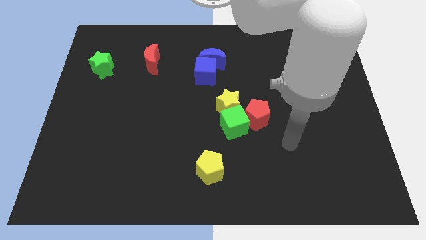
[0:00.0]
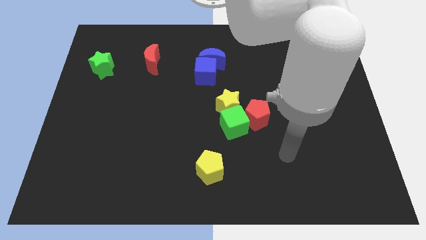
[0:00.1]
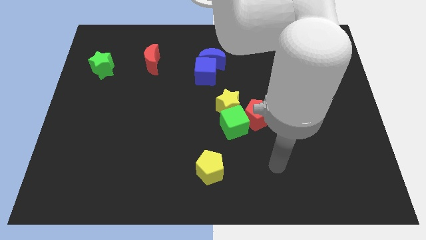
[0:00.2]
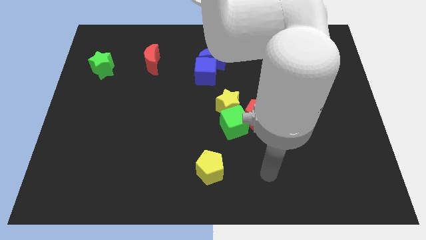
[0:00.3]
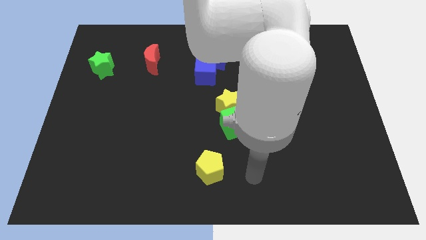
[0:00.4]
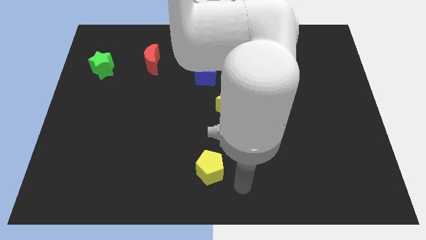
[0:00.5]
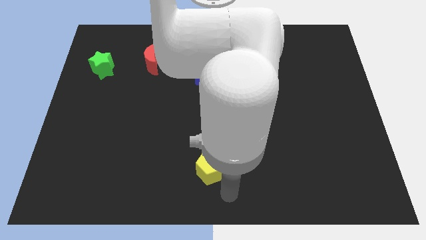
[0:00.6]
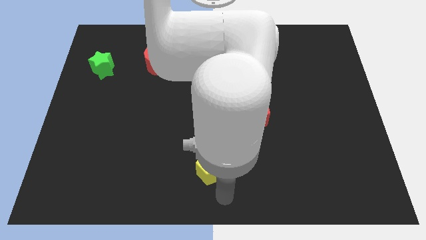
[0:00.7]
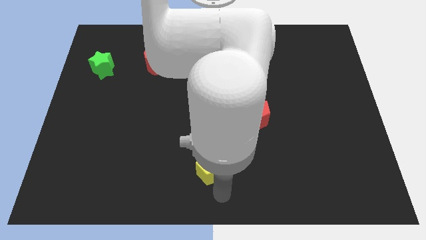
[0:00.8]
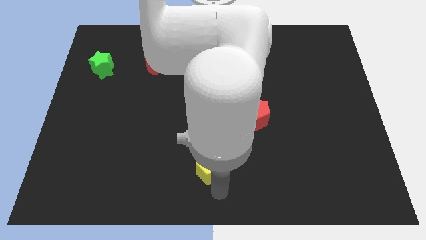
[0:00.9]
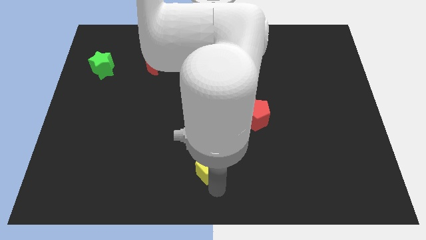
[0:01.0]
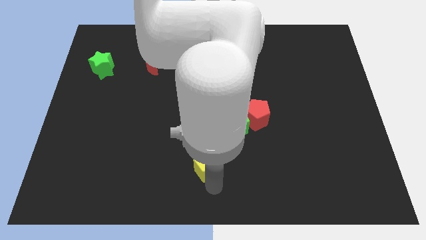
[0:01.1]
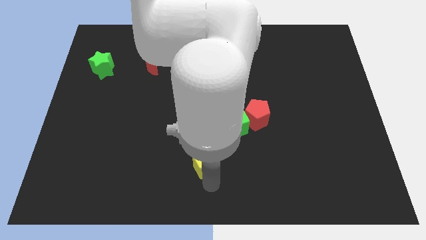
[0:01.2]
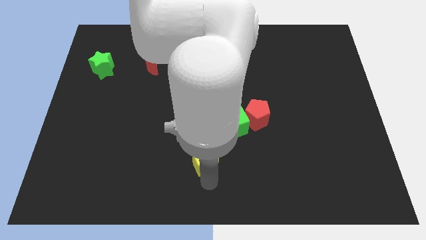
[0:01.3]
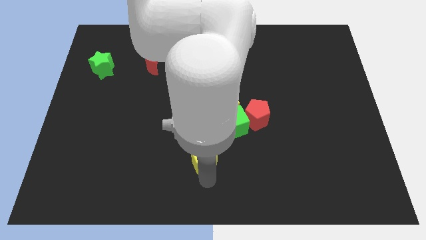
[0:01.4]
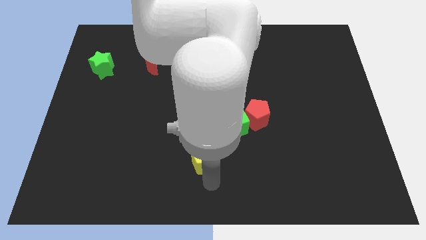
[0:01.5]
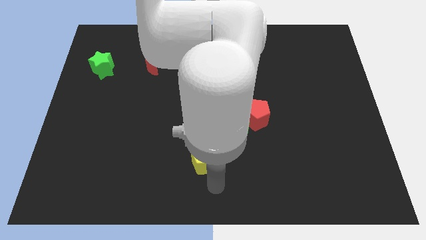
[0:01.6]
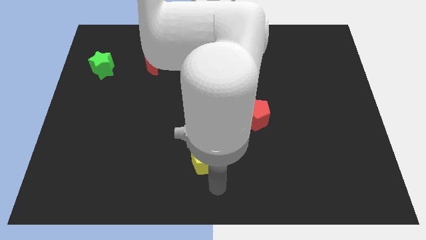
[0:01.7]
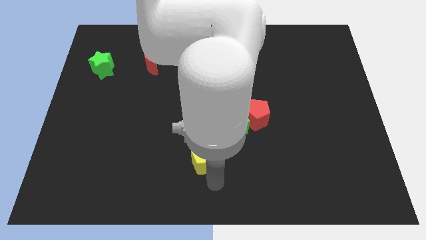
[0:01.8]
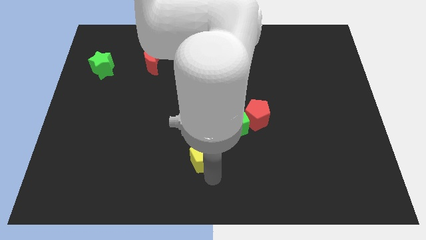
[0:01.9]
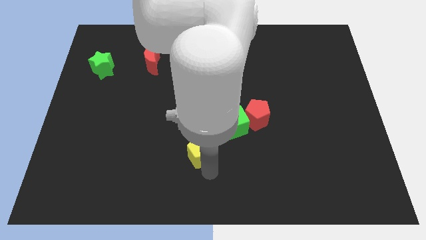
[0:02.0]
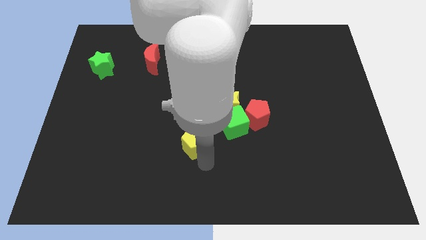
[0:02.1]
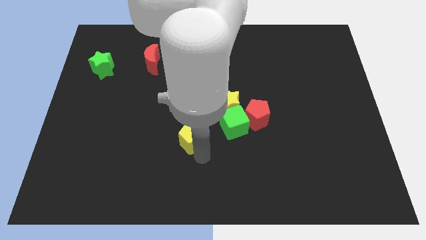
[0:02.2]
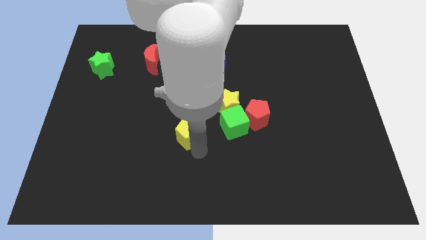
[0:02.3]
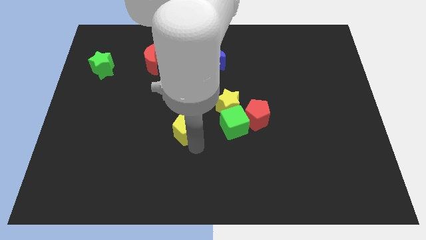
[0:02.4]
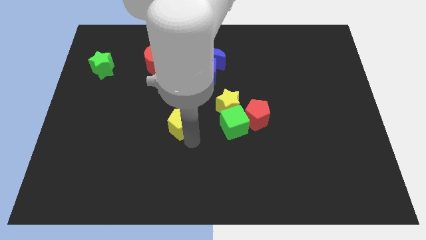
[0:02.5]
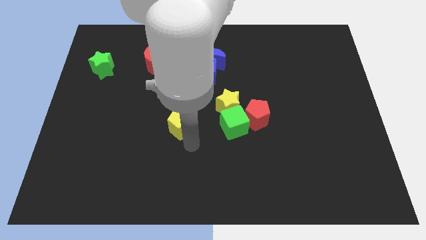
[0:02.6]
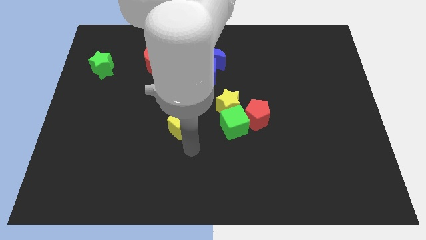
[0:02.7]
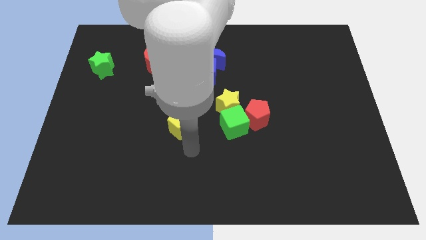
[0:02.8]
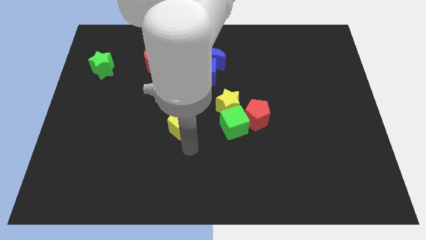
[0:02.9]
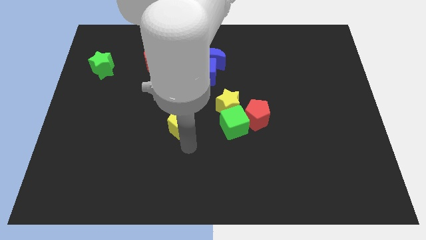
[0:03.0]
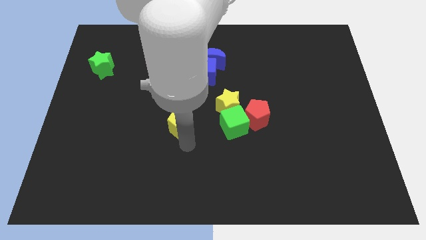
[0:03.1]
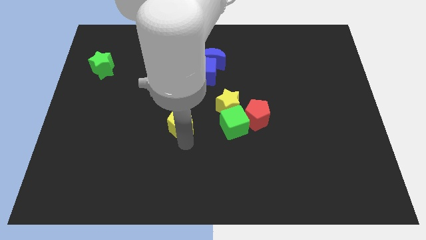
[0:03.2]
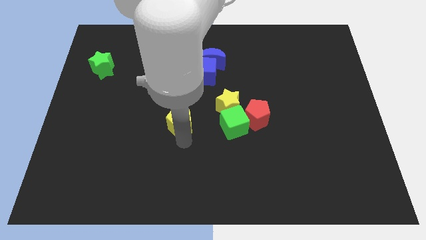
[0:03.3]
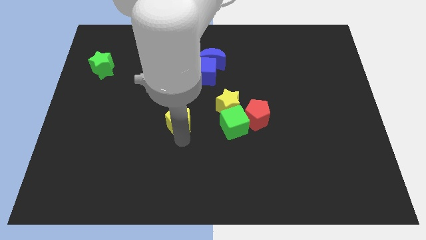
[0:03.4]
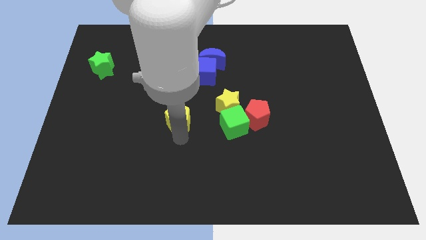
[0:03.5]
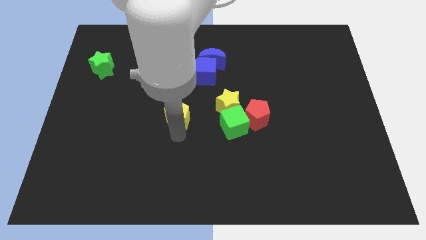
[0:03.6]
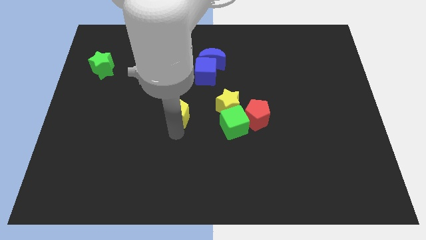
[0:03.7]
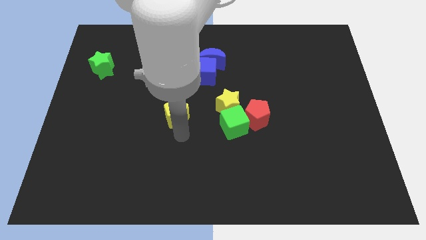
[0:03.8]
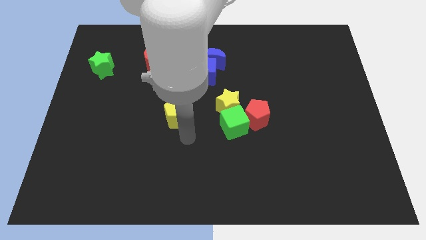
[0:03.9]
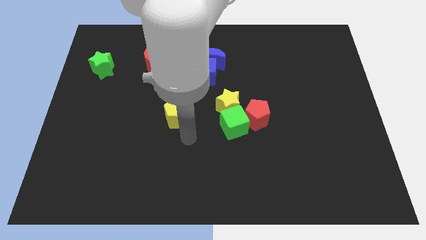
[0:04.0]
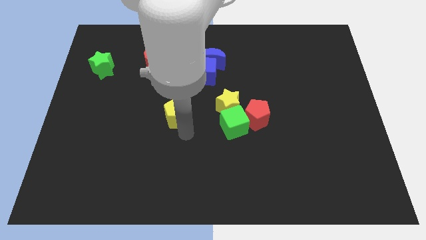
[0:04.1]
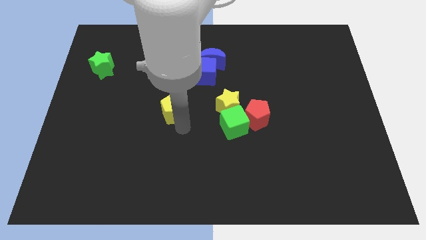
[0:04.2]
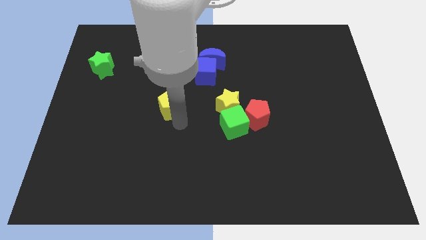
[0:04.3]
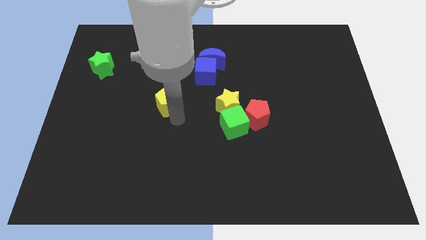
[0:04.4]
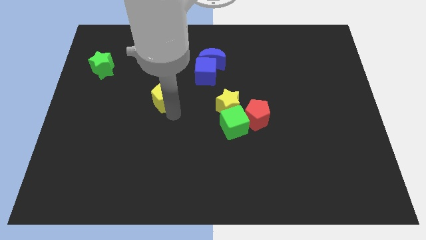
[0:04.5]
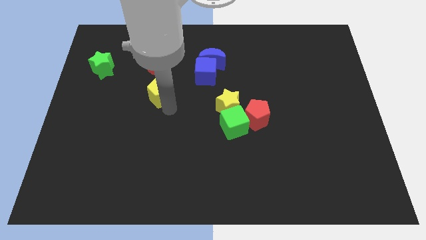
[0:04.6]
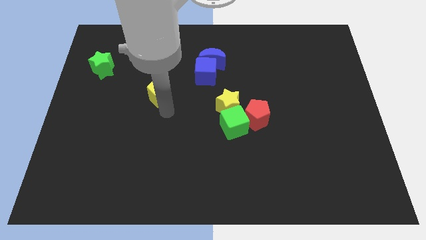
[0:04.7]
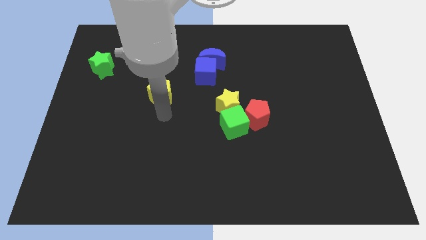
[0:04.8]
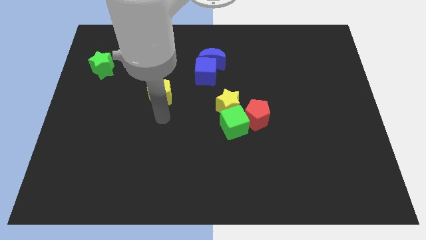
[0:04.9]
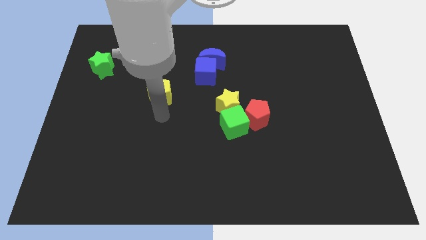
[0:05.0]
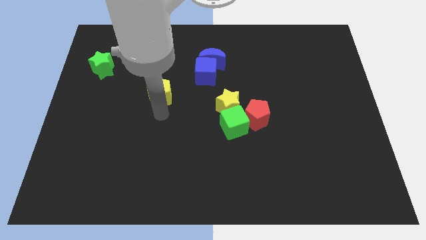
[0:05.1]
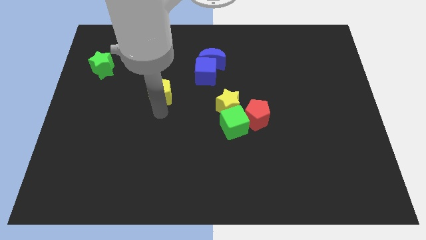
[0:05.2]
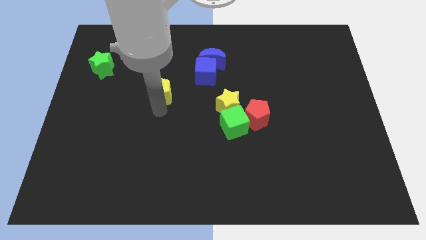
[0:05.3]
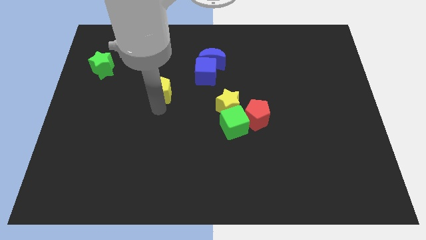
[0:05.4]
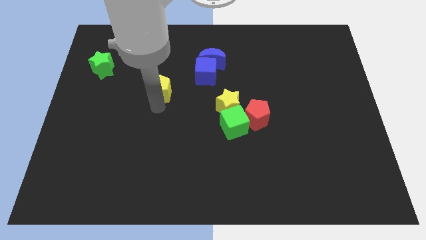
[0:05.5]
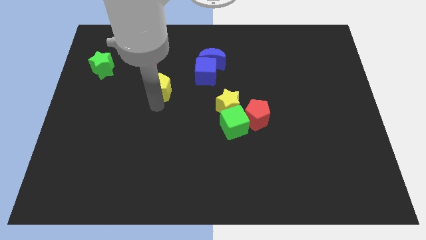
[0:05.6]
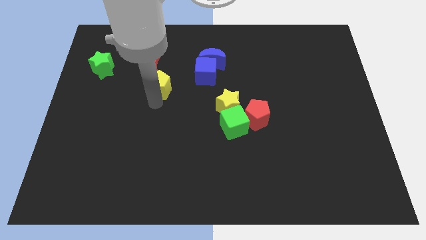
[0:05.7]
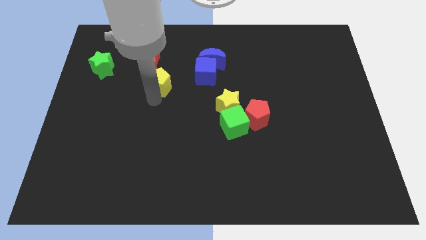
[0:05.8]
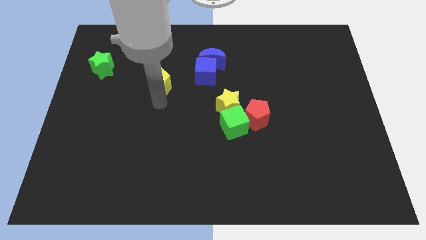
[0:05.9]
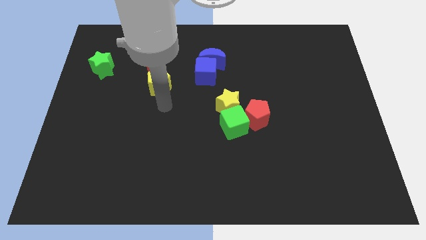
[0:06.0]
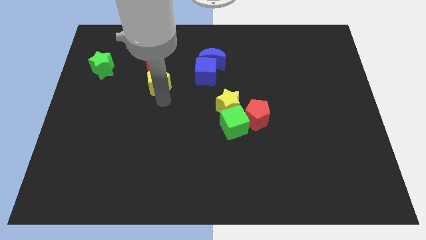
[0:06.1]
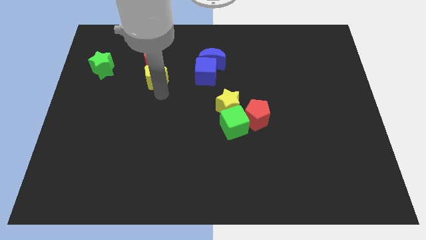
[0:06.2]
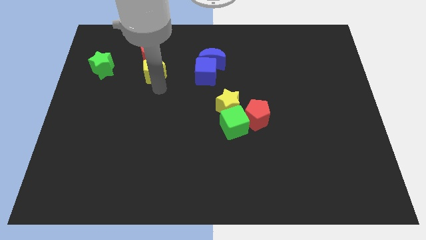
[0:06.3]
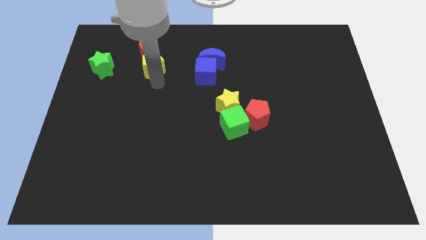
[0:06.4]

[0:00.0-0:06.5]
push the yellow pentagon close to the red moon
